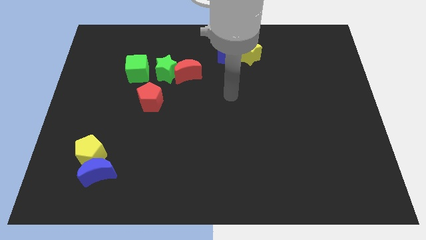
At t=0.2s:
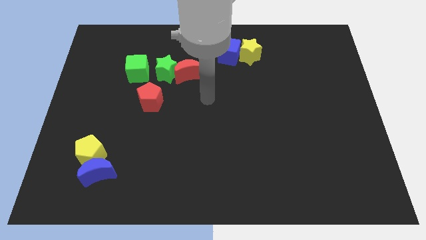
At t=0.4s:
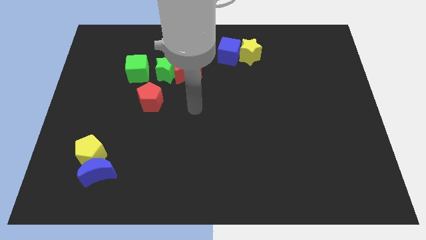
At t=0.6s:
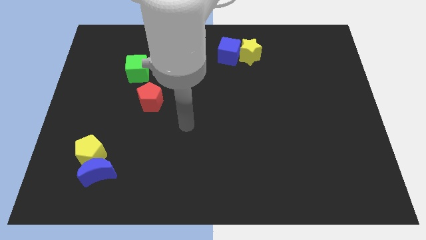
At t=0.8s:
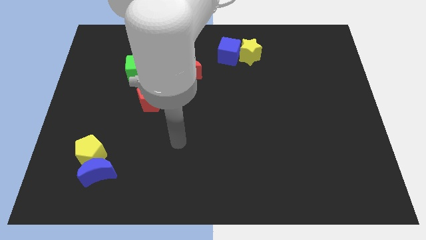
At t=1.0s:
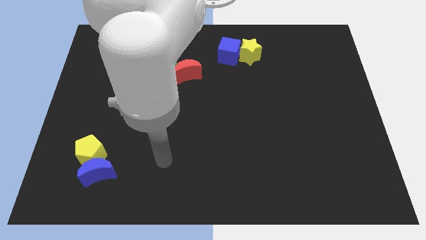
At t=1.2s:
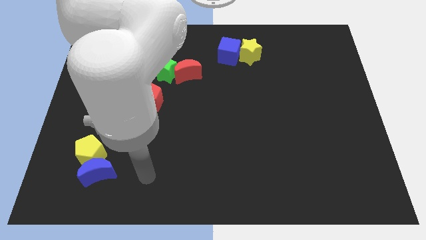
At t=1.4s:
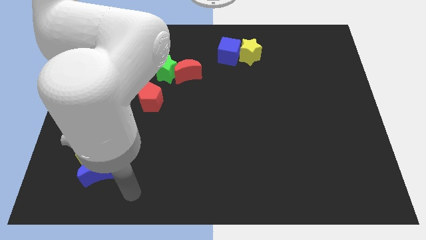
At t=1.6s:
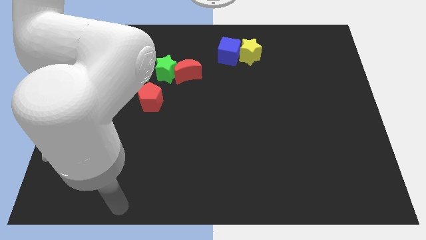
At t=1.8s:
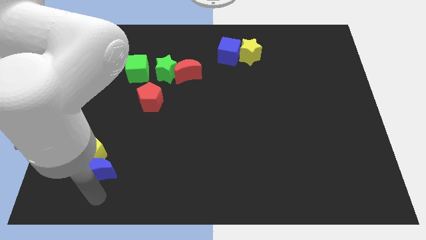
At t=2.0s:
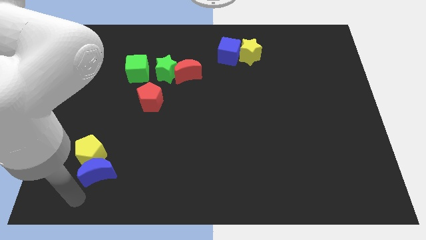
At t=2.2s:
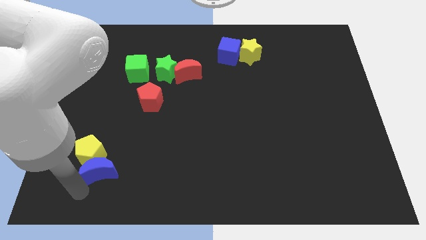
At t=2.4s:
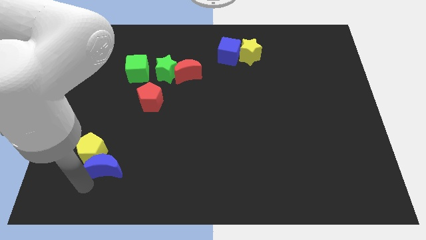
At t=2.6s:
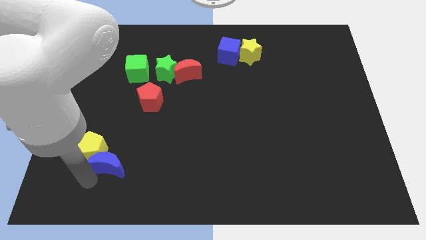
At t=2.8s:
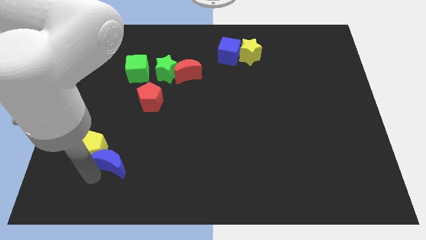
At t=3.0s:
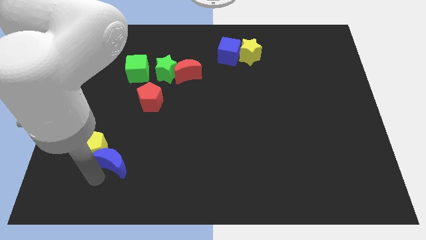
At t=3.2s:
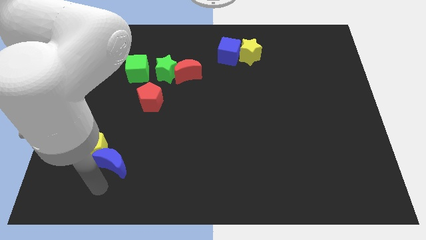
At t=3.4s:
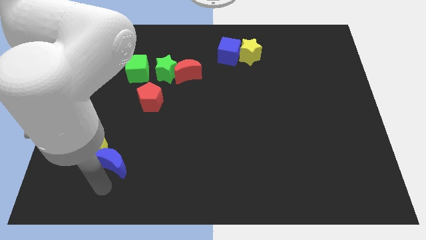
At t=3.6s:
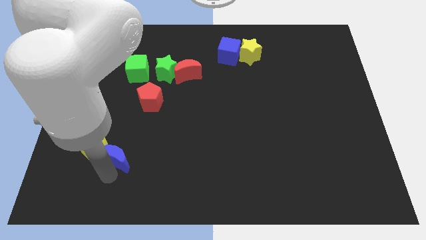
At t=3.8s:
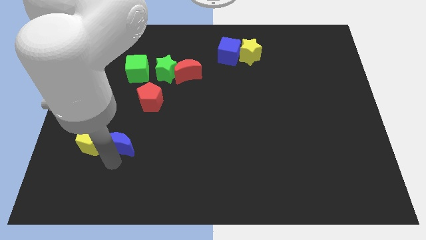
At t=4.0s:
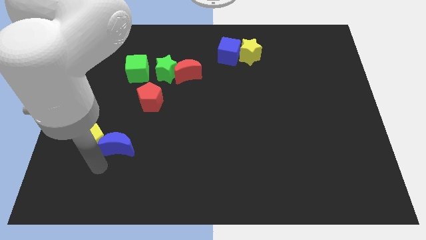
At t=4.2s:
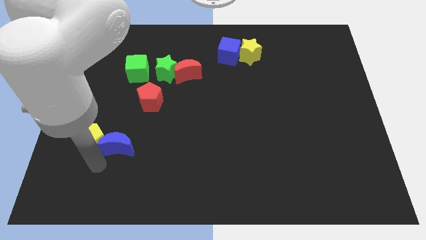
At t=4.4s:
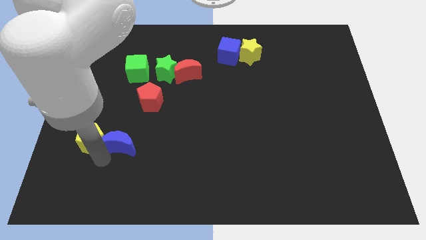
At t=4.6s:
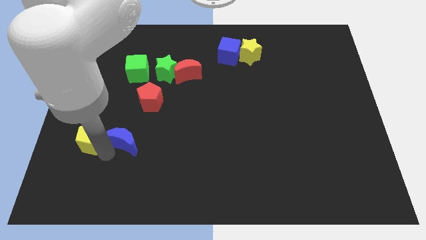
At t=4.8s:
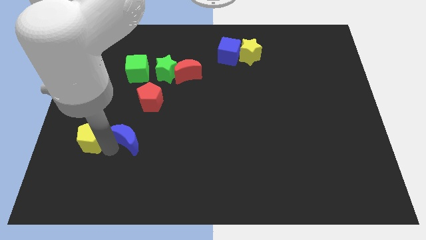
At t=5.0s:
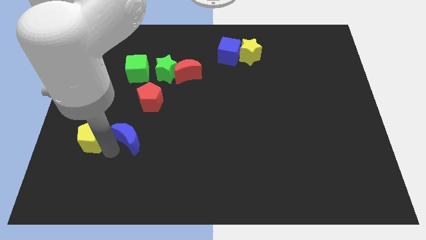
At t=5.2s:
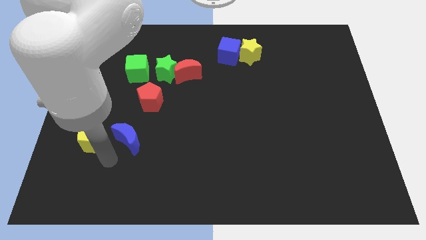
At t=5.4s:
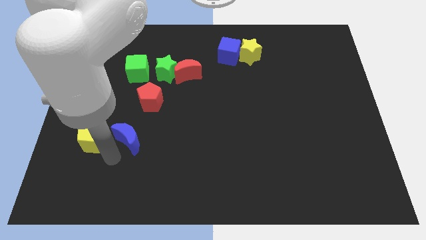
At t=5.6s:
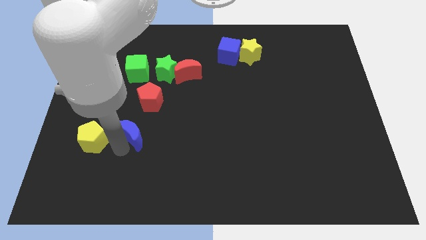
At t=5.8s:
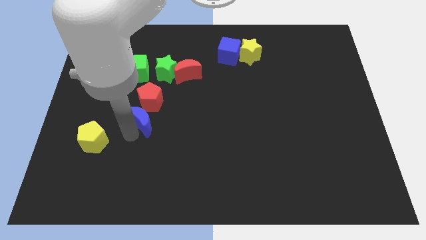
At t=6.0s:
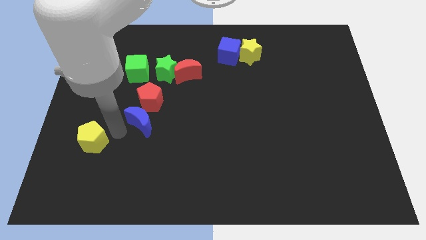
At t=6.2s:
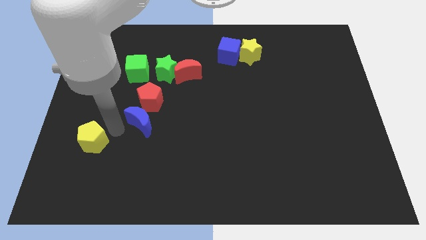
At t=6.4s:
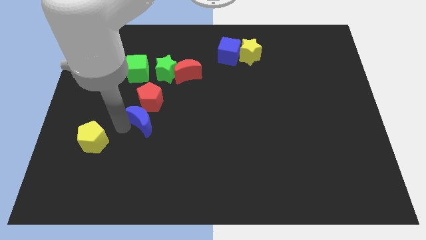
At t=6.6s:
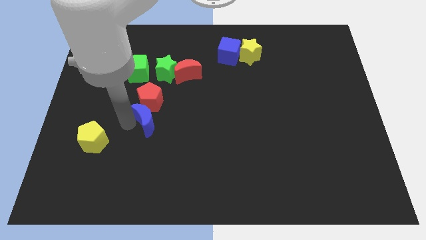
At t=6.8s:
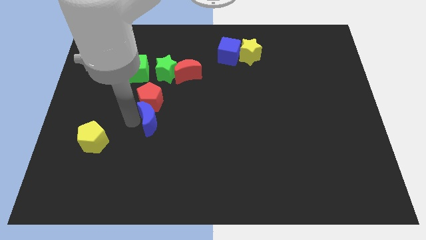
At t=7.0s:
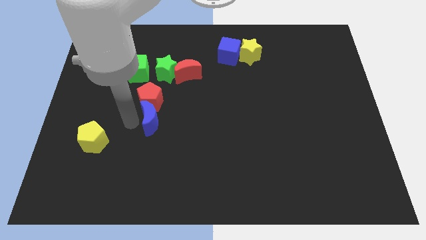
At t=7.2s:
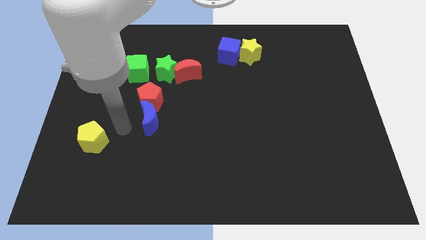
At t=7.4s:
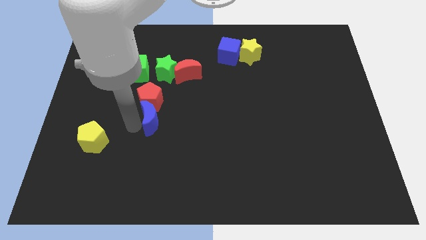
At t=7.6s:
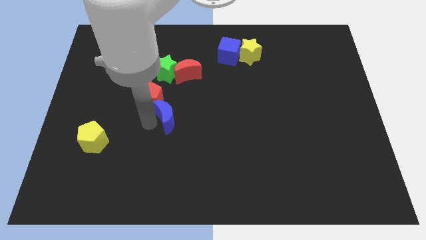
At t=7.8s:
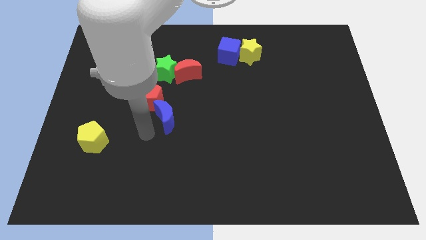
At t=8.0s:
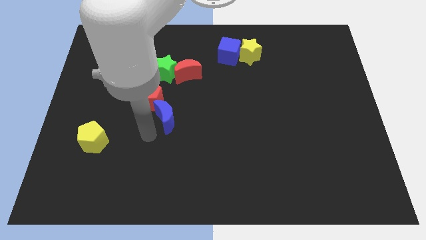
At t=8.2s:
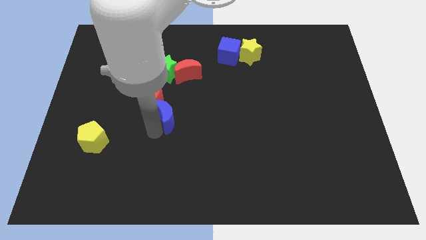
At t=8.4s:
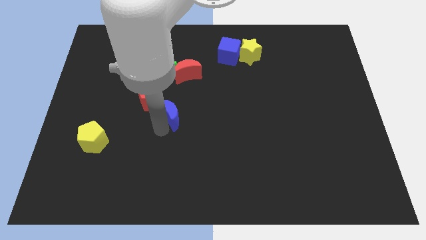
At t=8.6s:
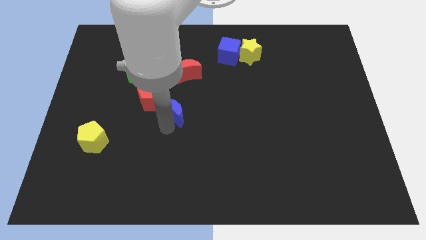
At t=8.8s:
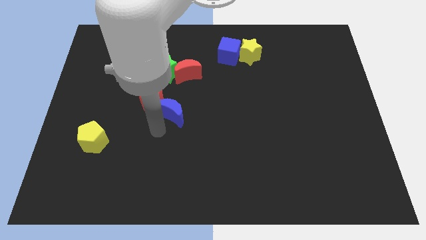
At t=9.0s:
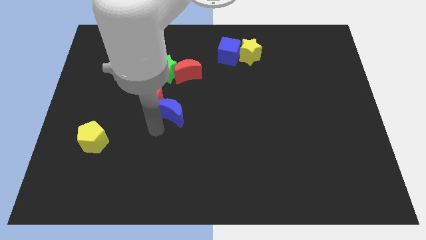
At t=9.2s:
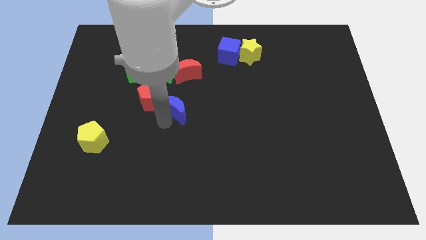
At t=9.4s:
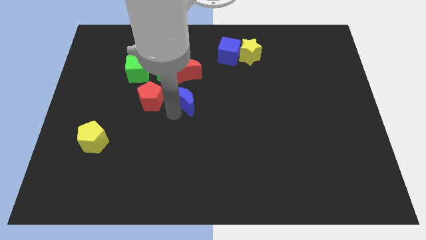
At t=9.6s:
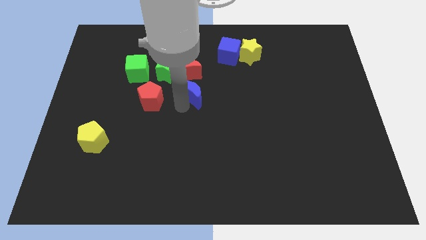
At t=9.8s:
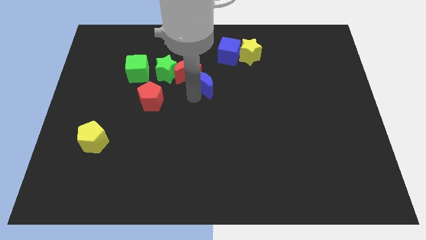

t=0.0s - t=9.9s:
slide the blue moon to the right side of the green star

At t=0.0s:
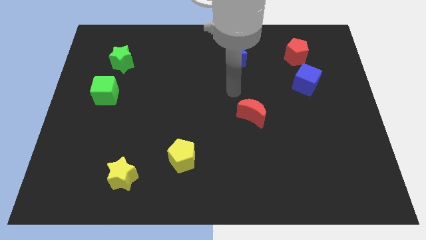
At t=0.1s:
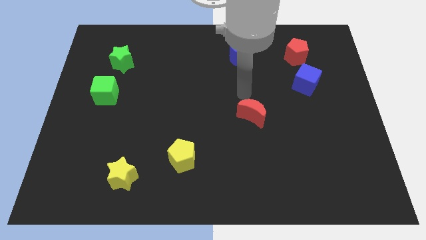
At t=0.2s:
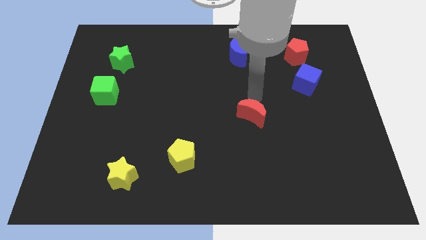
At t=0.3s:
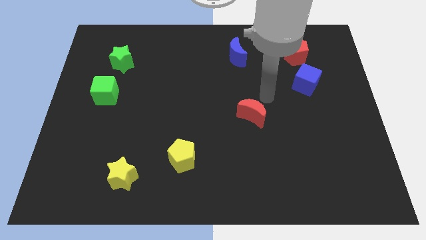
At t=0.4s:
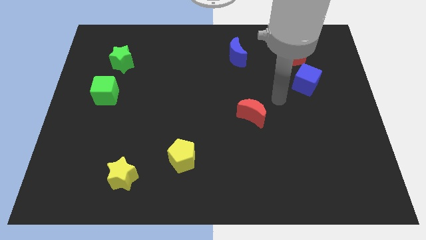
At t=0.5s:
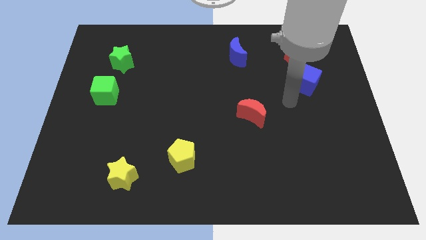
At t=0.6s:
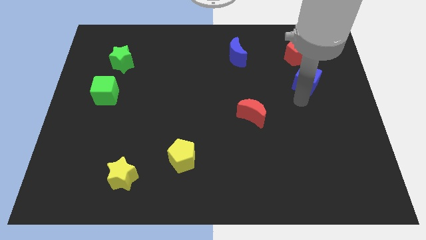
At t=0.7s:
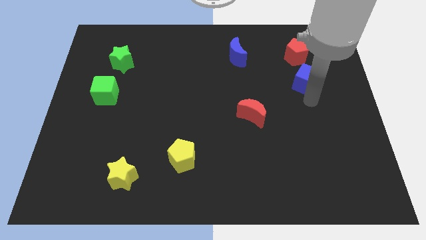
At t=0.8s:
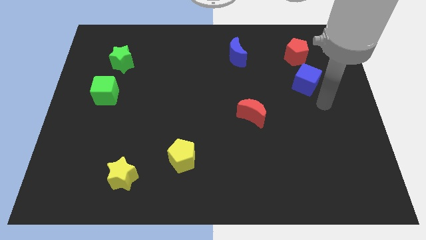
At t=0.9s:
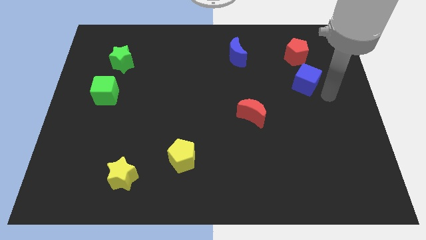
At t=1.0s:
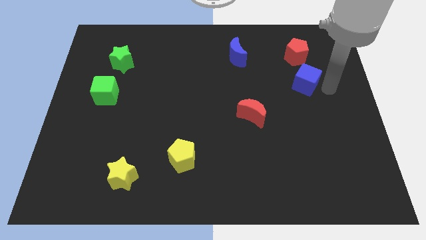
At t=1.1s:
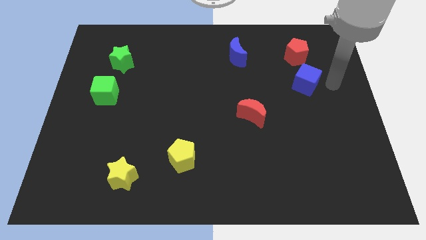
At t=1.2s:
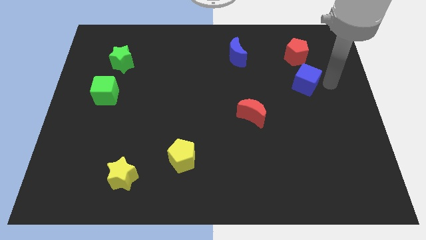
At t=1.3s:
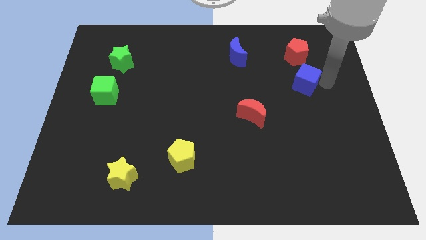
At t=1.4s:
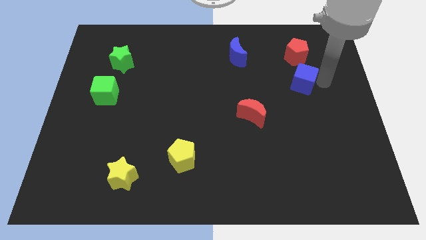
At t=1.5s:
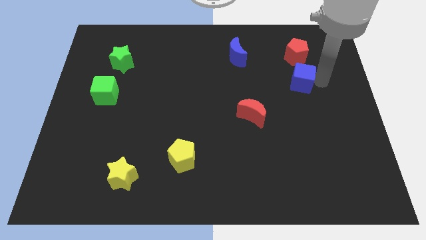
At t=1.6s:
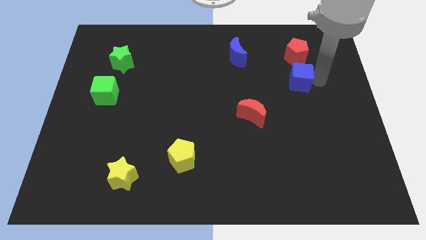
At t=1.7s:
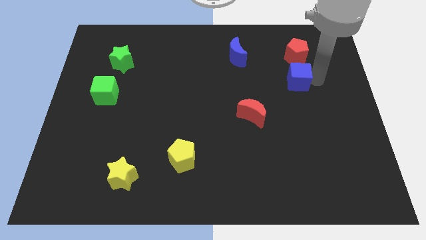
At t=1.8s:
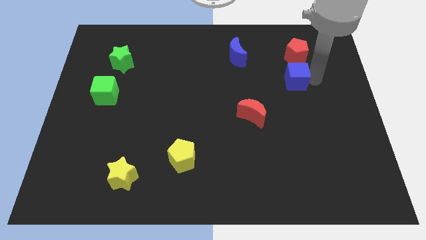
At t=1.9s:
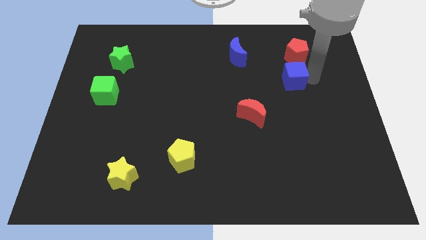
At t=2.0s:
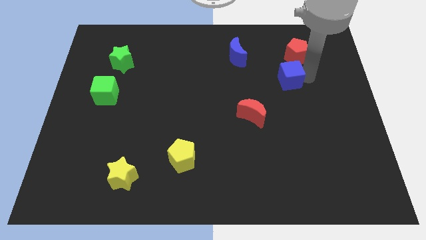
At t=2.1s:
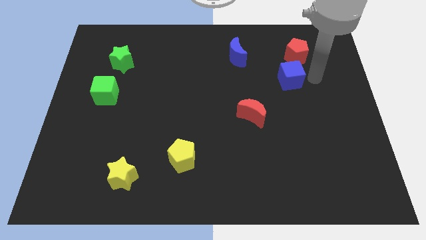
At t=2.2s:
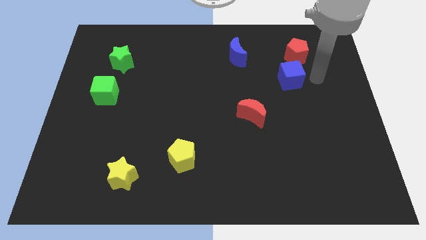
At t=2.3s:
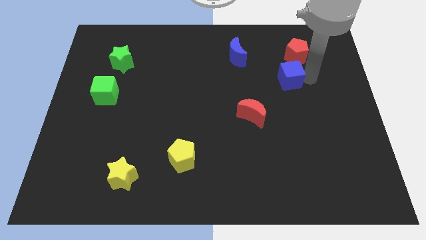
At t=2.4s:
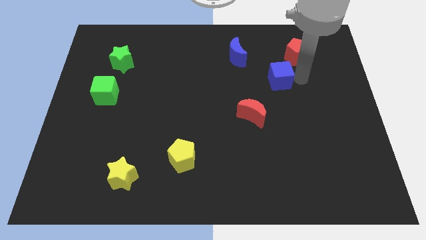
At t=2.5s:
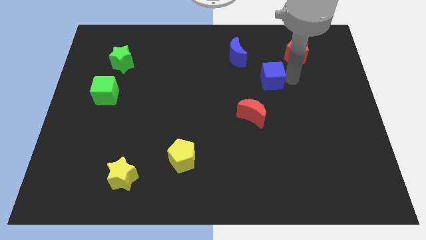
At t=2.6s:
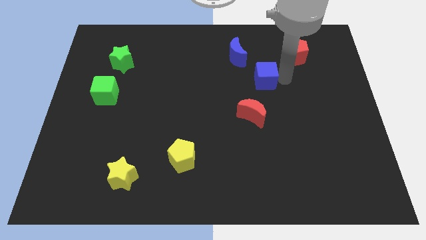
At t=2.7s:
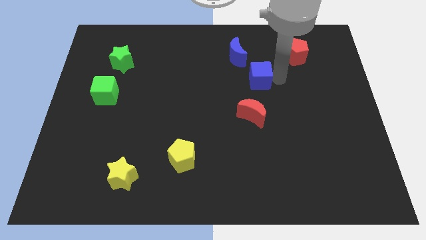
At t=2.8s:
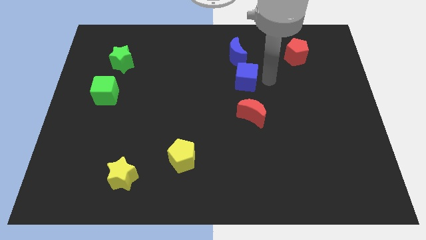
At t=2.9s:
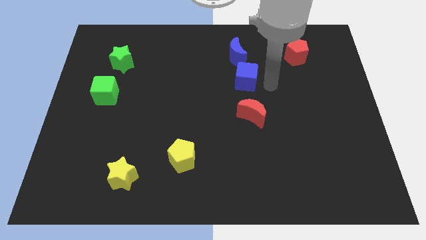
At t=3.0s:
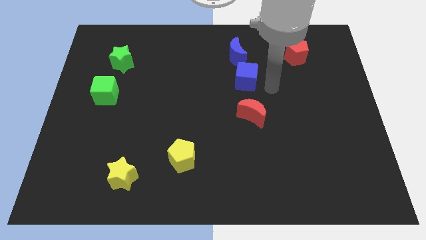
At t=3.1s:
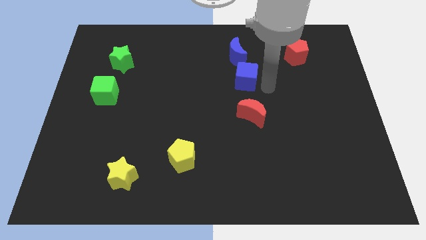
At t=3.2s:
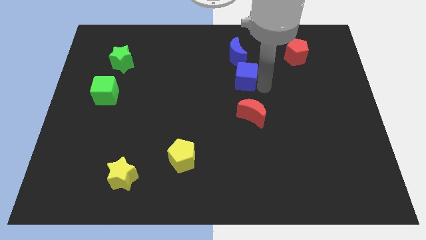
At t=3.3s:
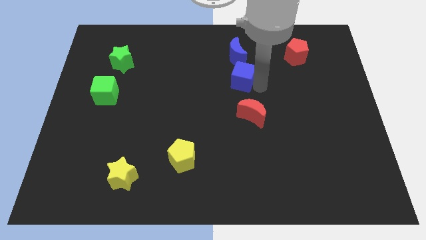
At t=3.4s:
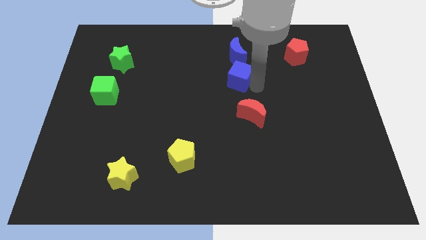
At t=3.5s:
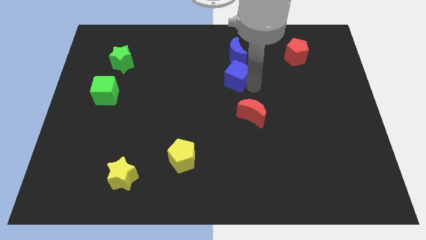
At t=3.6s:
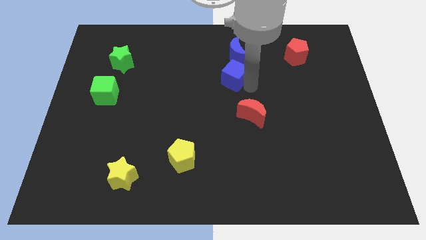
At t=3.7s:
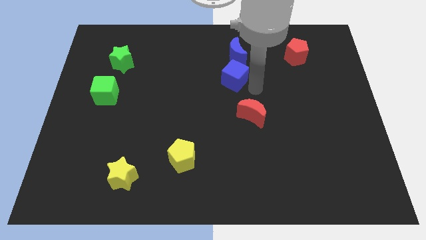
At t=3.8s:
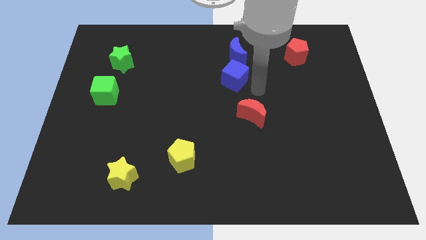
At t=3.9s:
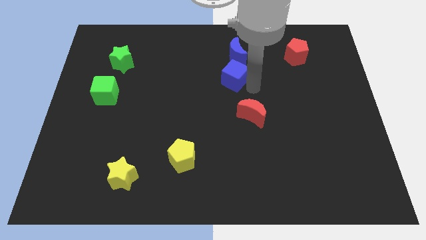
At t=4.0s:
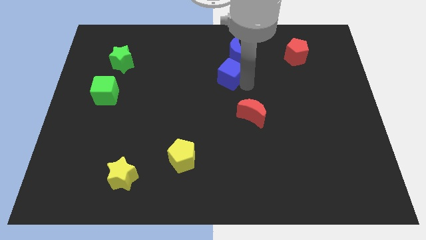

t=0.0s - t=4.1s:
push the blue cube diagonally down and to the left of the blue moon
